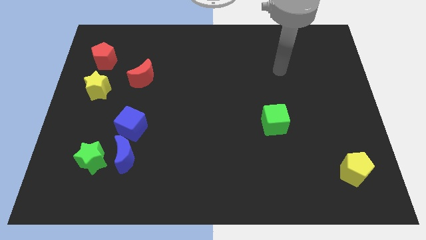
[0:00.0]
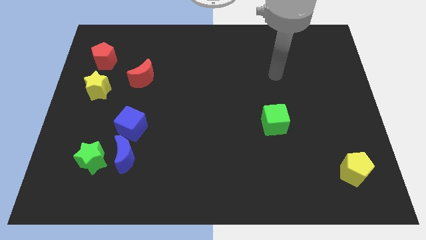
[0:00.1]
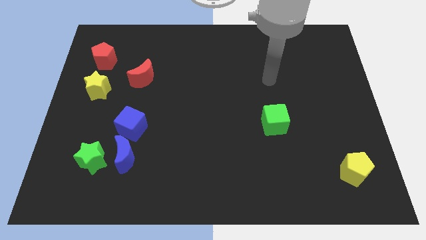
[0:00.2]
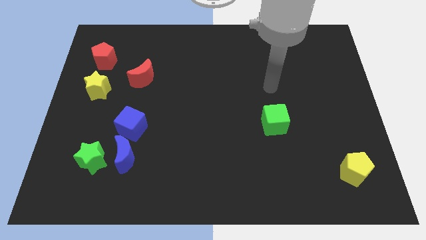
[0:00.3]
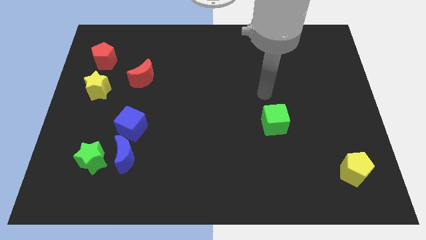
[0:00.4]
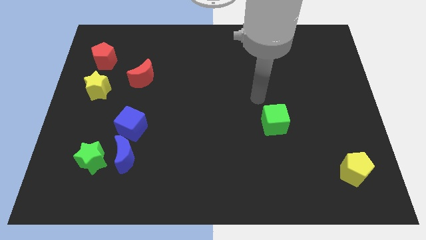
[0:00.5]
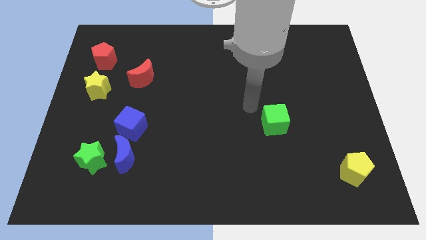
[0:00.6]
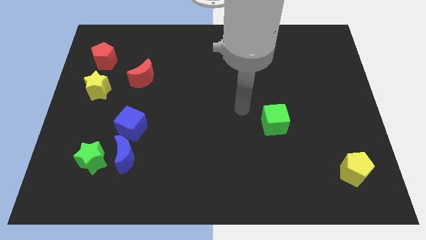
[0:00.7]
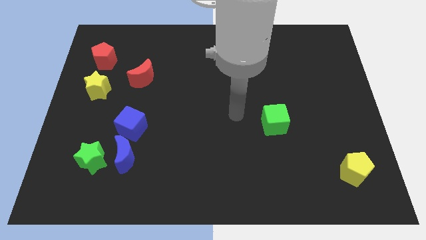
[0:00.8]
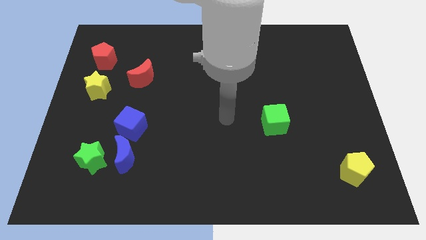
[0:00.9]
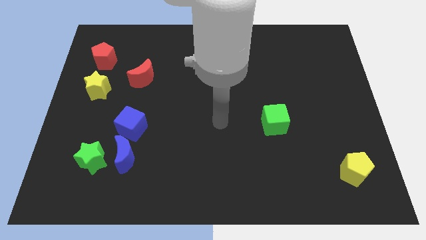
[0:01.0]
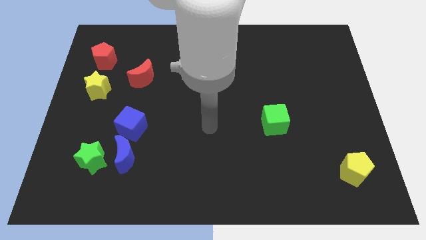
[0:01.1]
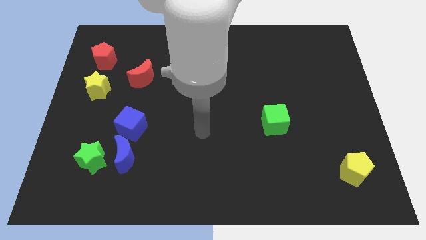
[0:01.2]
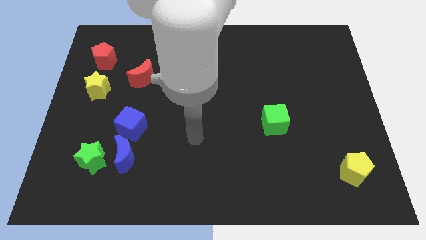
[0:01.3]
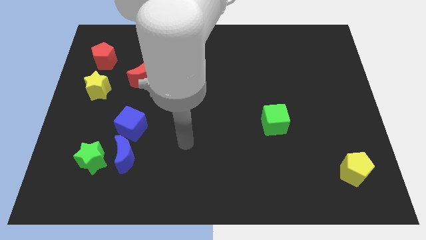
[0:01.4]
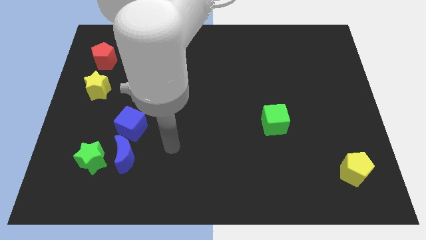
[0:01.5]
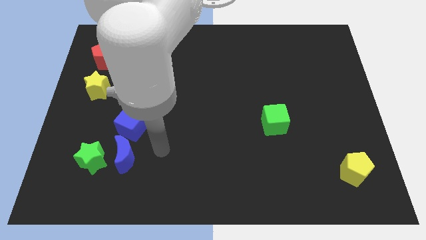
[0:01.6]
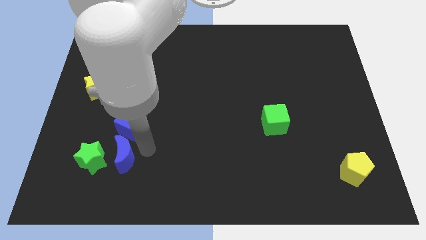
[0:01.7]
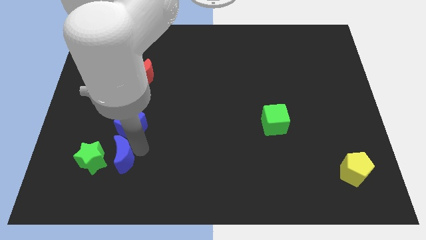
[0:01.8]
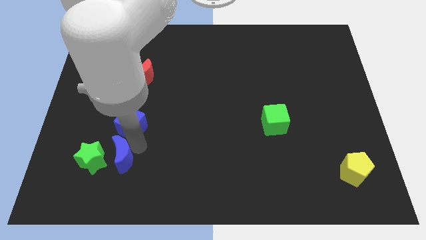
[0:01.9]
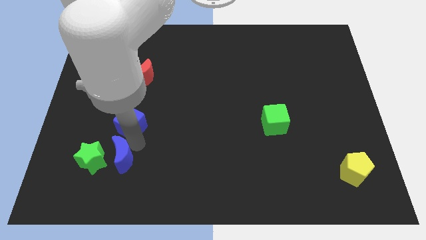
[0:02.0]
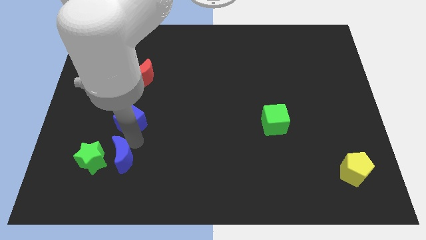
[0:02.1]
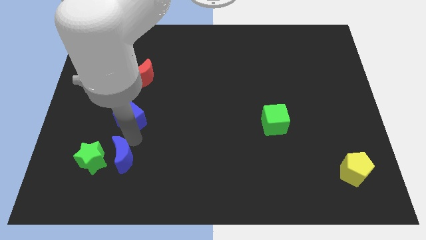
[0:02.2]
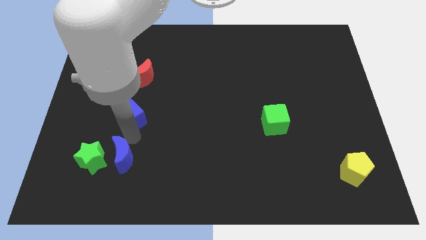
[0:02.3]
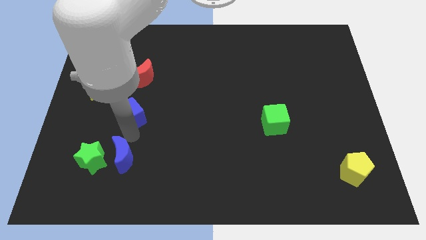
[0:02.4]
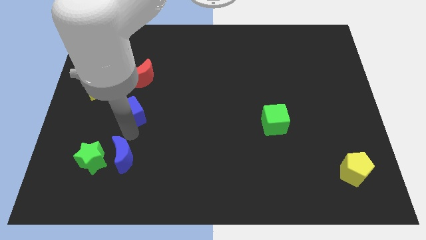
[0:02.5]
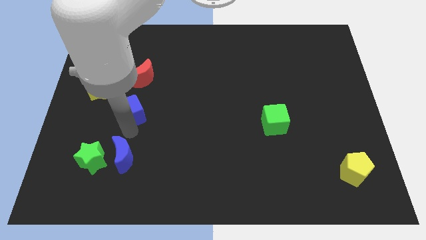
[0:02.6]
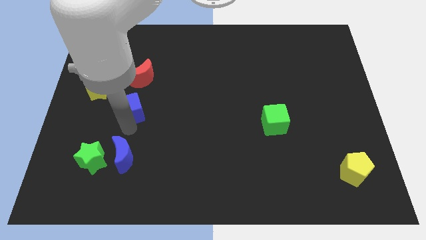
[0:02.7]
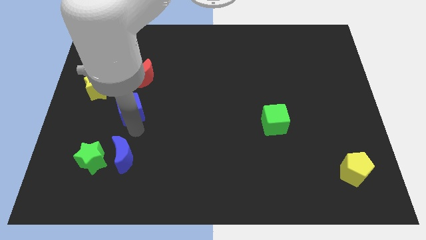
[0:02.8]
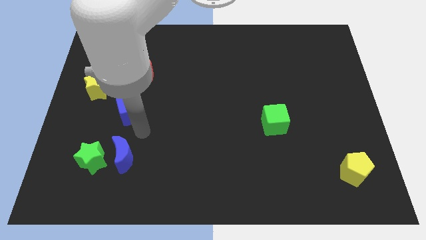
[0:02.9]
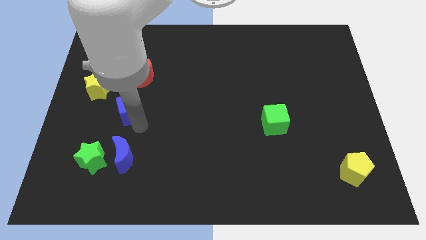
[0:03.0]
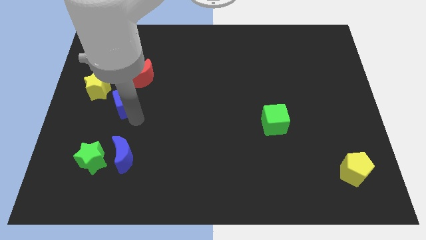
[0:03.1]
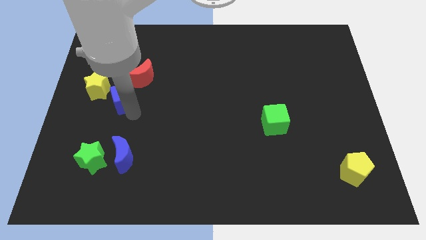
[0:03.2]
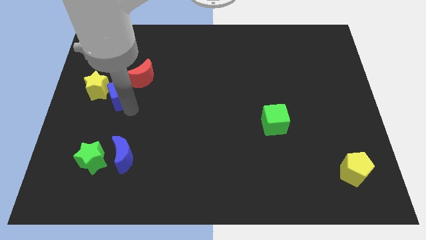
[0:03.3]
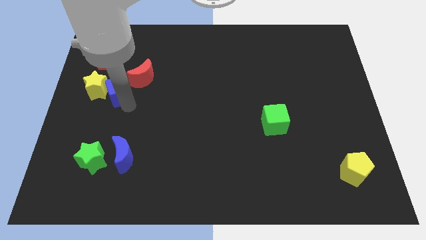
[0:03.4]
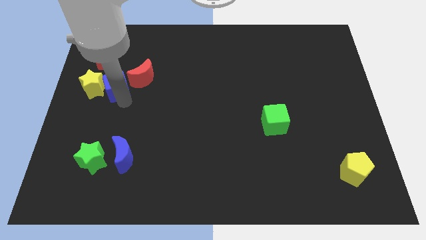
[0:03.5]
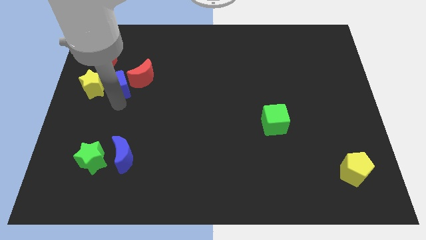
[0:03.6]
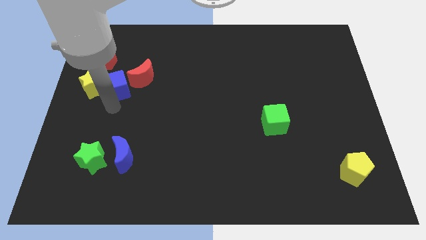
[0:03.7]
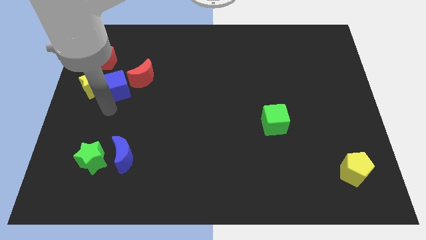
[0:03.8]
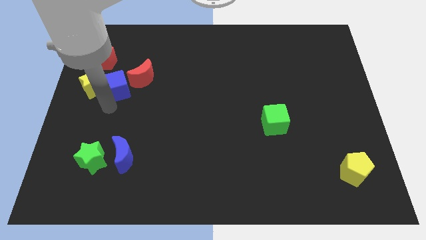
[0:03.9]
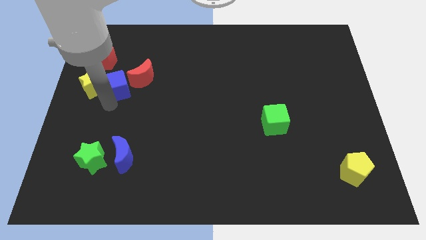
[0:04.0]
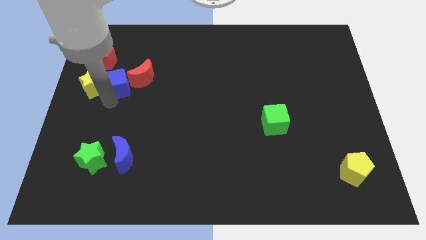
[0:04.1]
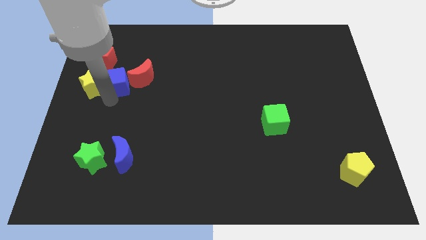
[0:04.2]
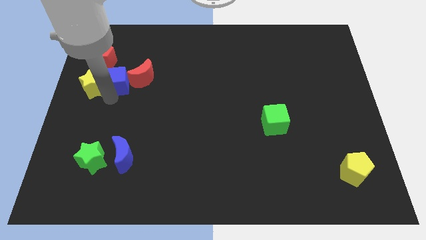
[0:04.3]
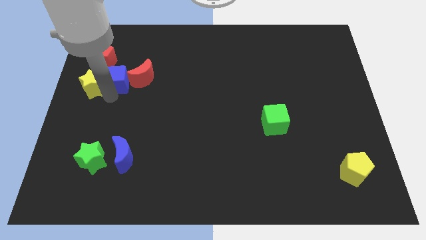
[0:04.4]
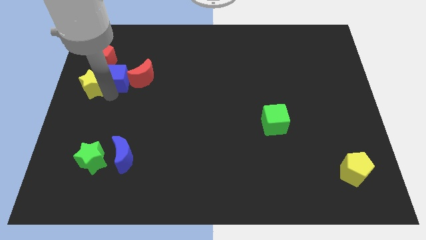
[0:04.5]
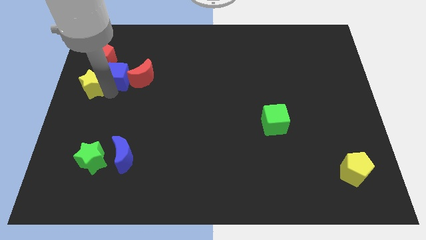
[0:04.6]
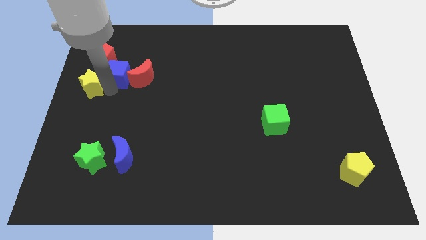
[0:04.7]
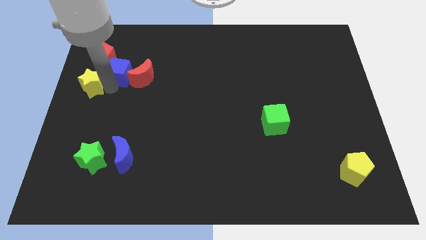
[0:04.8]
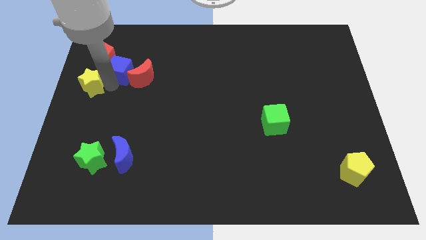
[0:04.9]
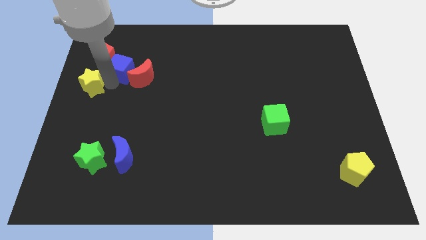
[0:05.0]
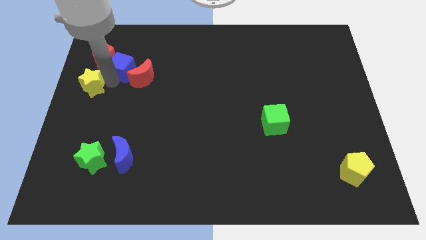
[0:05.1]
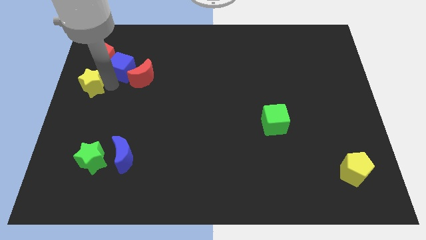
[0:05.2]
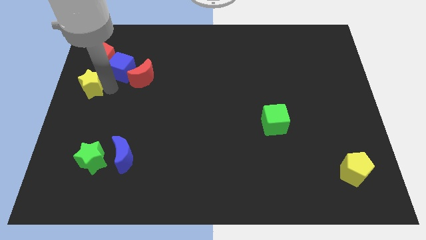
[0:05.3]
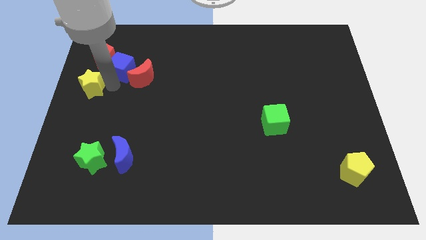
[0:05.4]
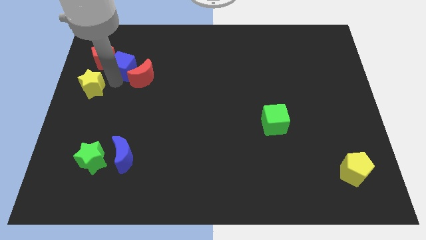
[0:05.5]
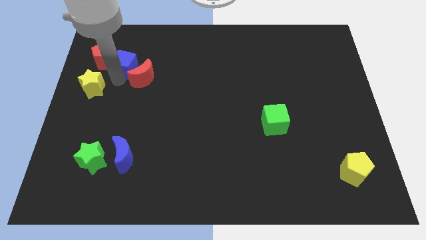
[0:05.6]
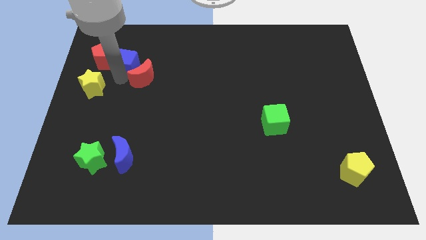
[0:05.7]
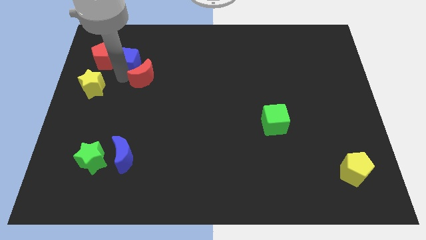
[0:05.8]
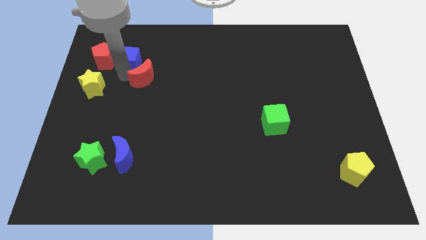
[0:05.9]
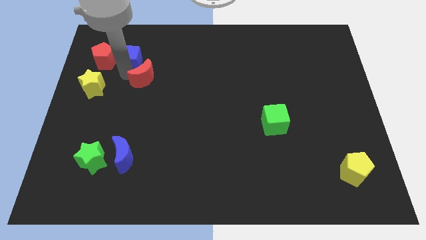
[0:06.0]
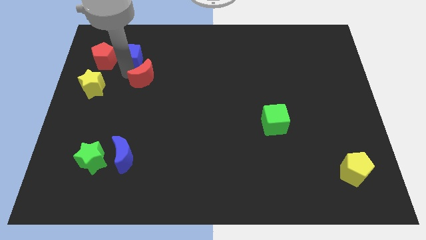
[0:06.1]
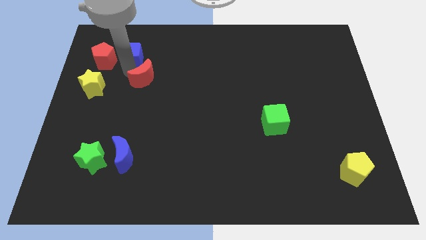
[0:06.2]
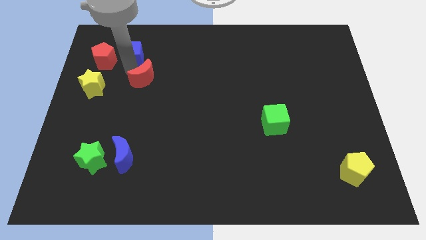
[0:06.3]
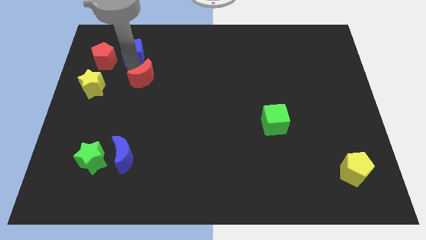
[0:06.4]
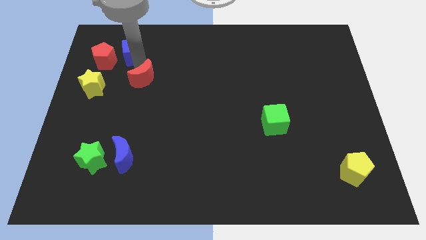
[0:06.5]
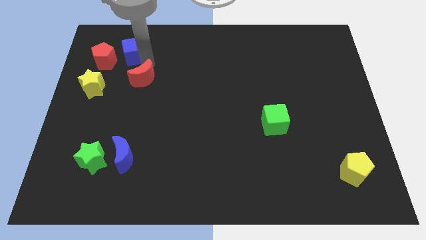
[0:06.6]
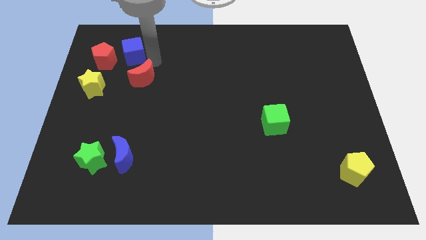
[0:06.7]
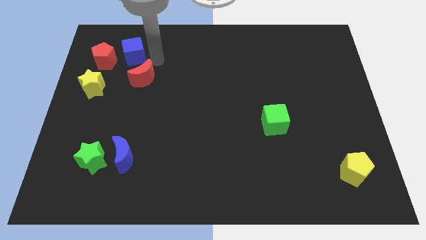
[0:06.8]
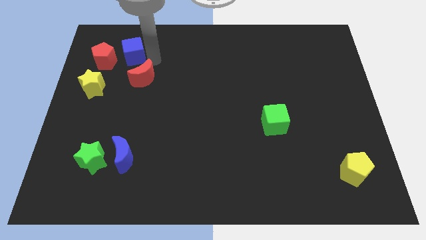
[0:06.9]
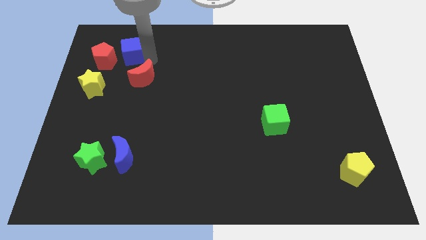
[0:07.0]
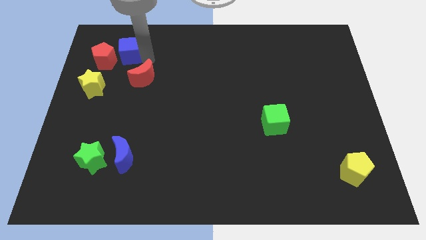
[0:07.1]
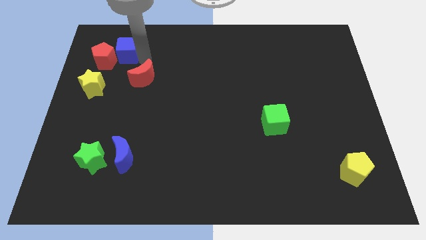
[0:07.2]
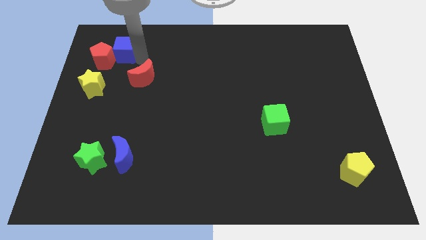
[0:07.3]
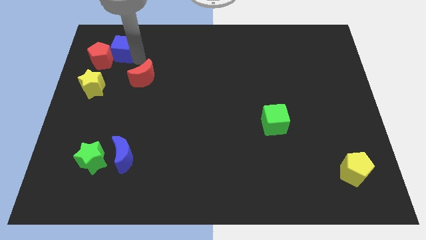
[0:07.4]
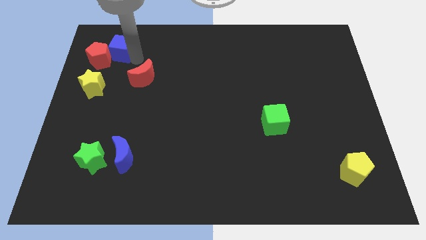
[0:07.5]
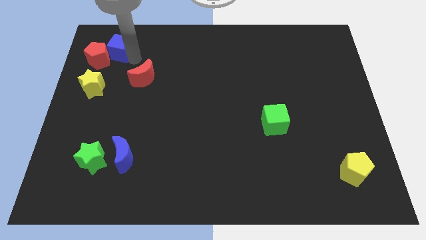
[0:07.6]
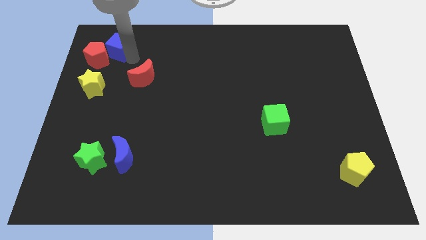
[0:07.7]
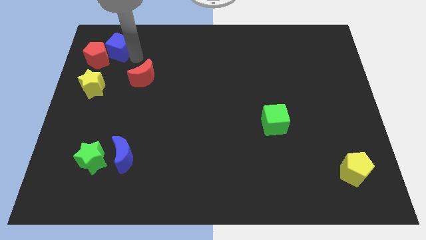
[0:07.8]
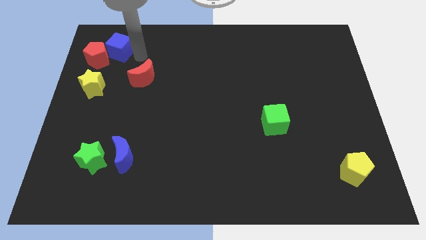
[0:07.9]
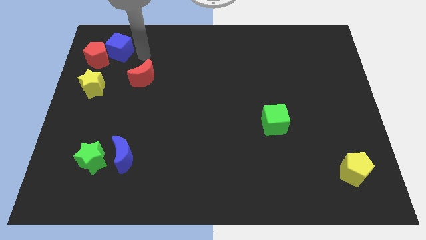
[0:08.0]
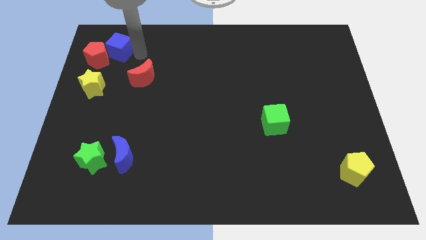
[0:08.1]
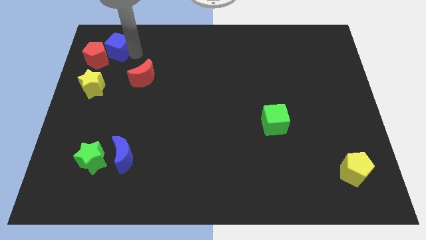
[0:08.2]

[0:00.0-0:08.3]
push the blue cube to the top side of the yellow star
